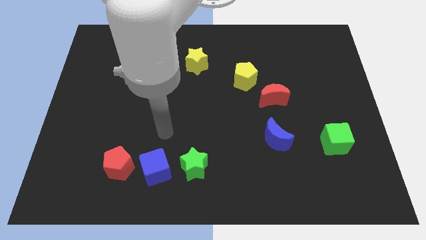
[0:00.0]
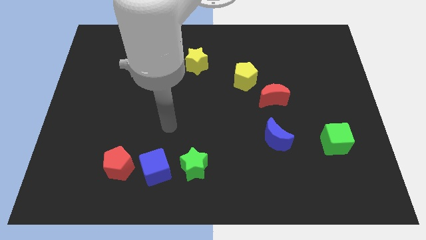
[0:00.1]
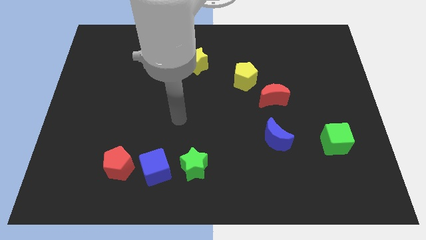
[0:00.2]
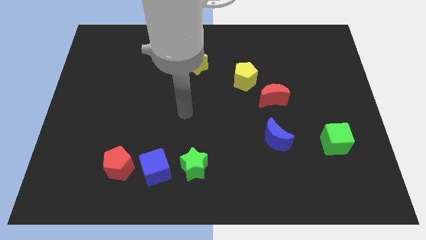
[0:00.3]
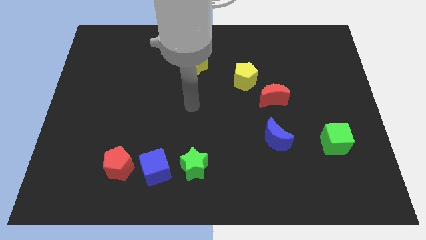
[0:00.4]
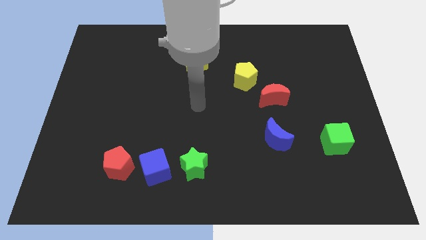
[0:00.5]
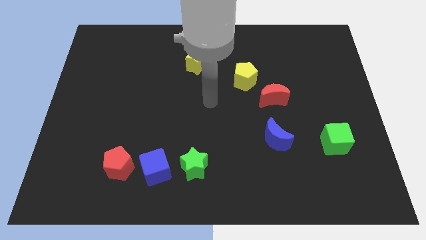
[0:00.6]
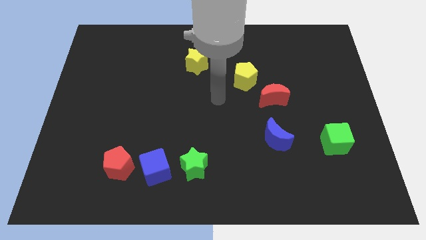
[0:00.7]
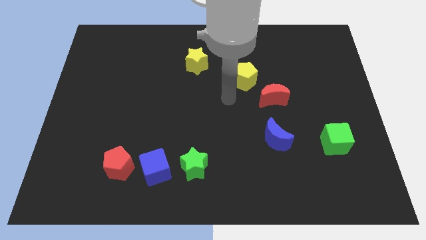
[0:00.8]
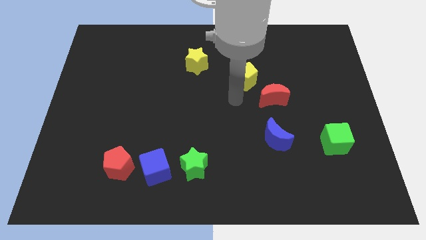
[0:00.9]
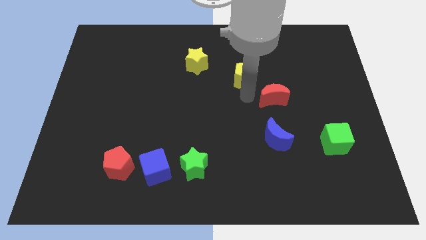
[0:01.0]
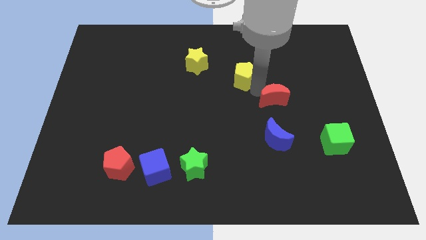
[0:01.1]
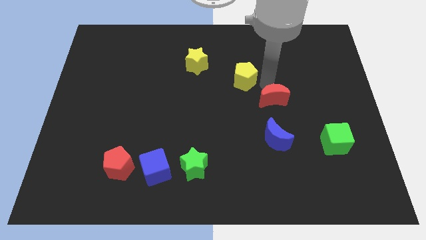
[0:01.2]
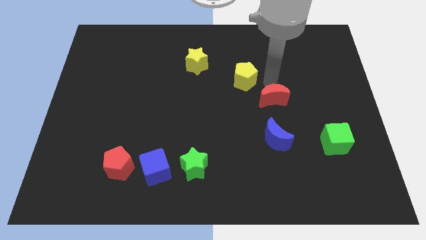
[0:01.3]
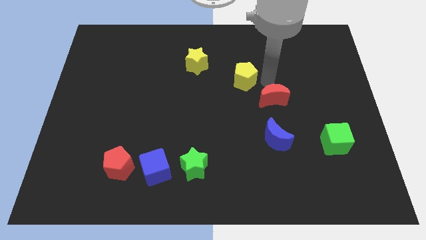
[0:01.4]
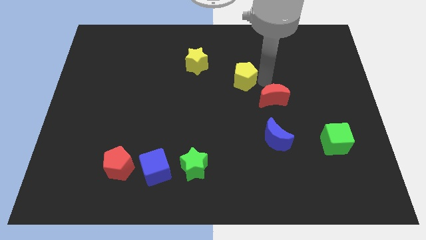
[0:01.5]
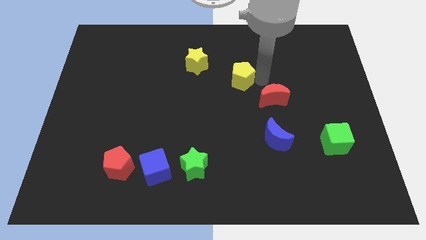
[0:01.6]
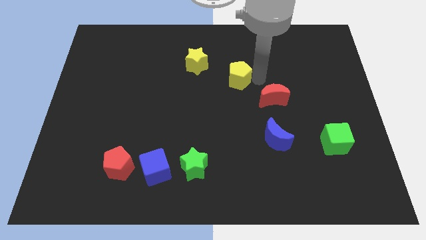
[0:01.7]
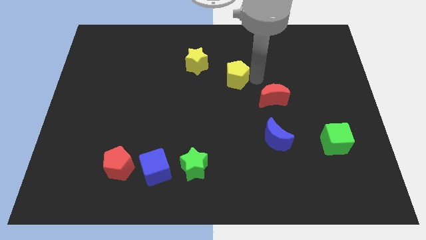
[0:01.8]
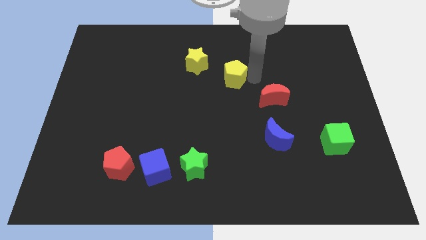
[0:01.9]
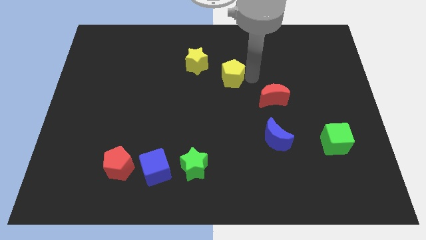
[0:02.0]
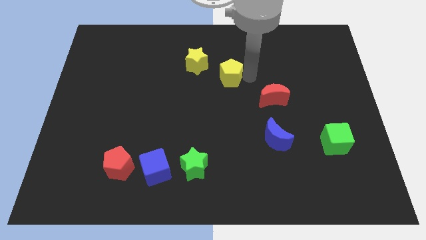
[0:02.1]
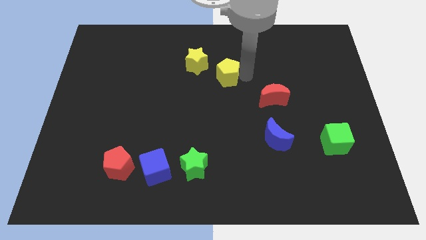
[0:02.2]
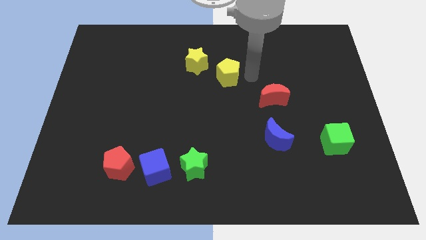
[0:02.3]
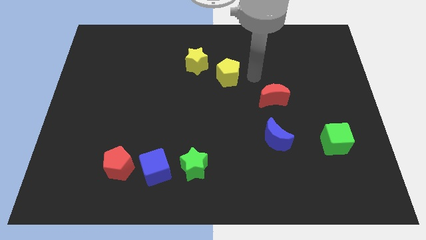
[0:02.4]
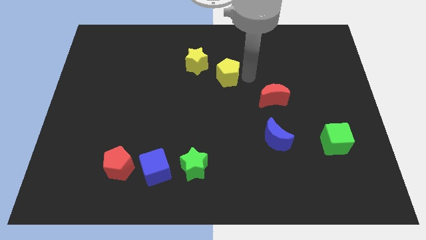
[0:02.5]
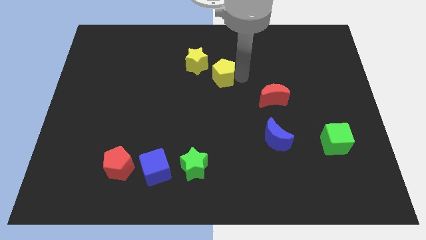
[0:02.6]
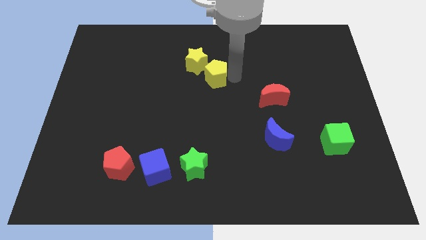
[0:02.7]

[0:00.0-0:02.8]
push the yellow pentagon a little bit to the left

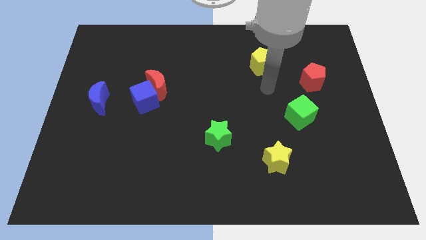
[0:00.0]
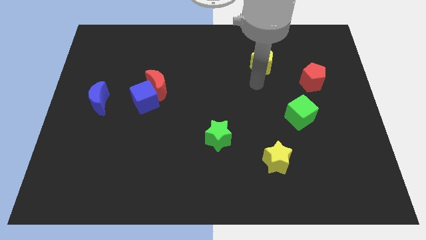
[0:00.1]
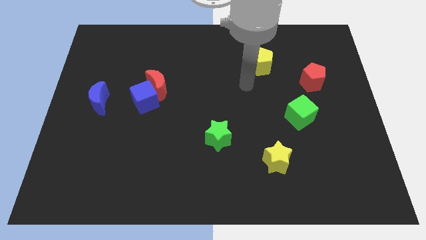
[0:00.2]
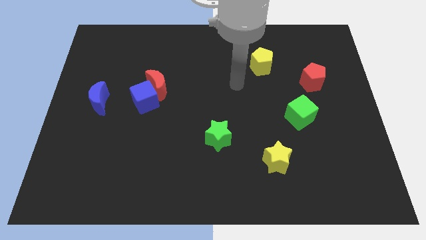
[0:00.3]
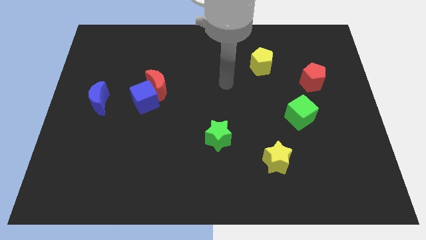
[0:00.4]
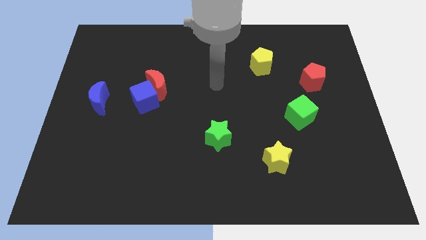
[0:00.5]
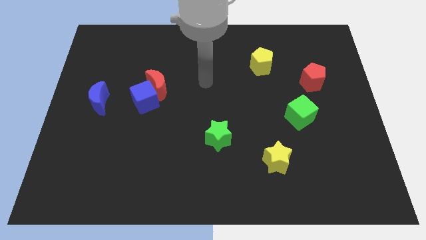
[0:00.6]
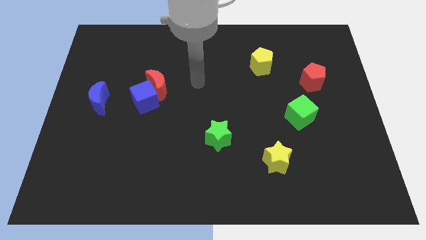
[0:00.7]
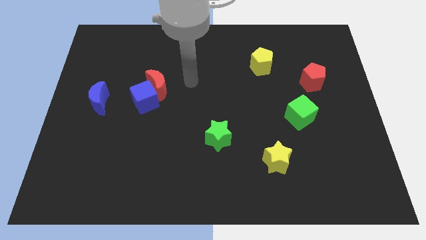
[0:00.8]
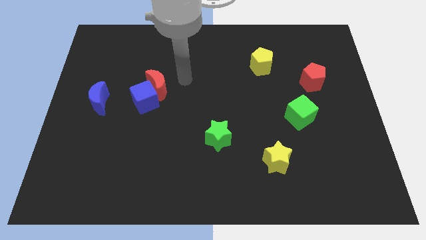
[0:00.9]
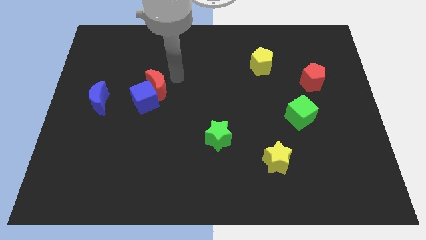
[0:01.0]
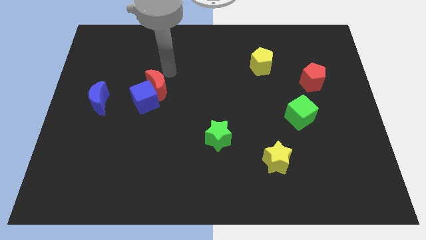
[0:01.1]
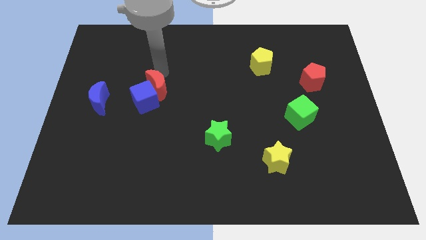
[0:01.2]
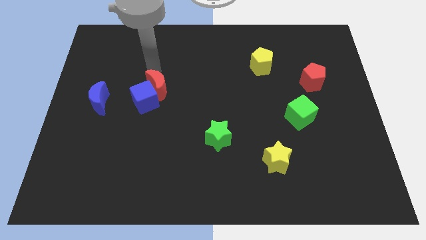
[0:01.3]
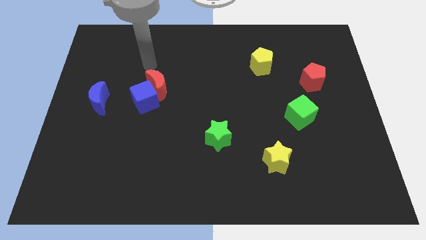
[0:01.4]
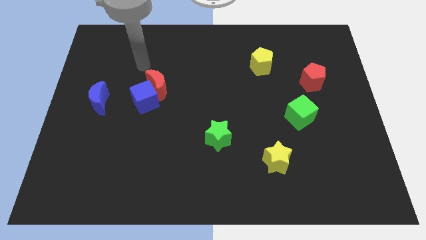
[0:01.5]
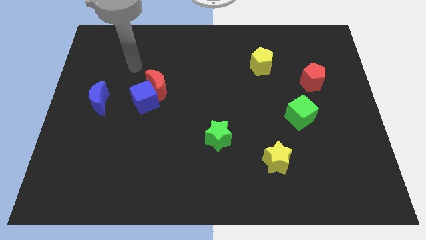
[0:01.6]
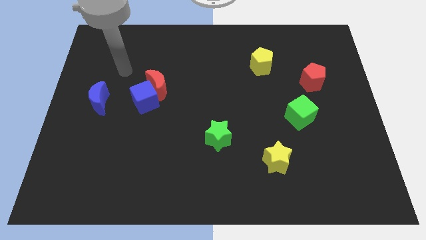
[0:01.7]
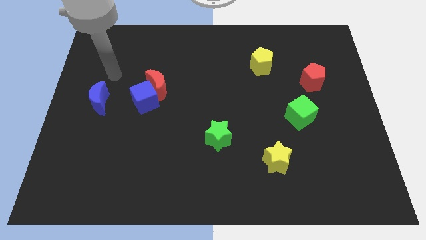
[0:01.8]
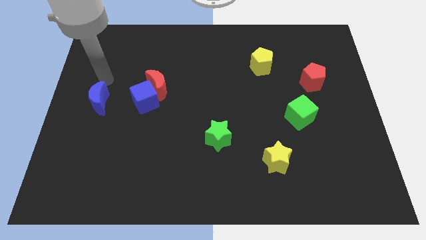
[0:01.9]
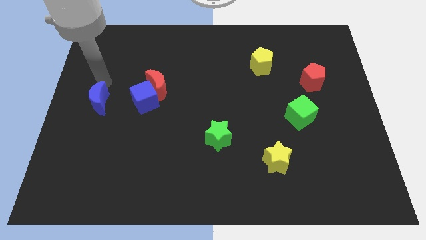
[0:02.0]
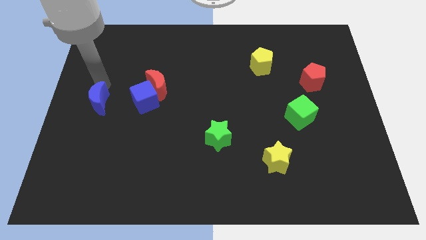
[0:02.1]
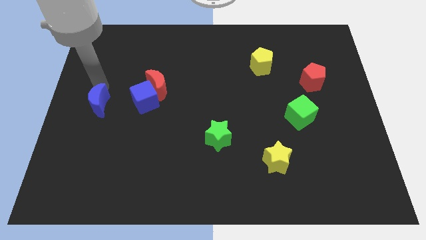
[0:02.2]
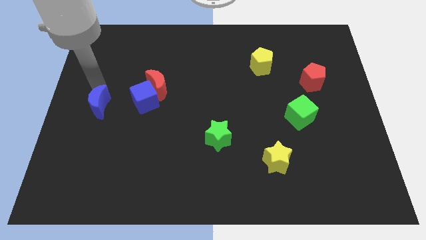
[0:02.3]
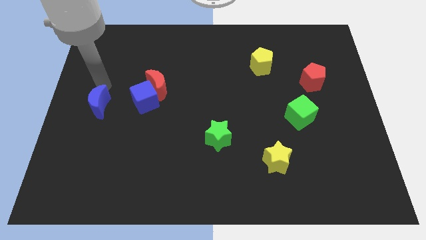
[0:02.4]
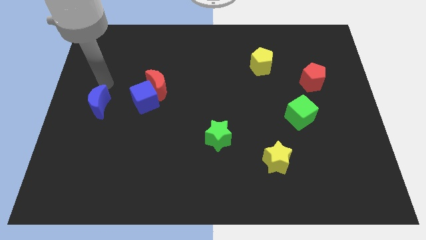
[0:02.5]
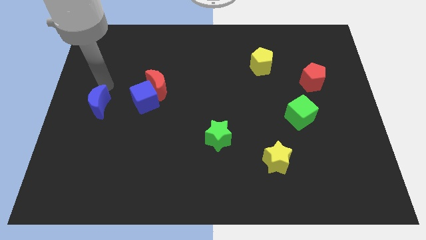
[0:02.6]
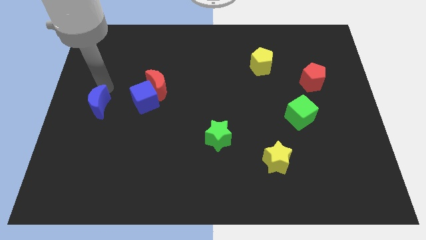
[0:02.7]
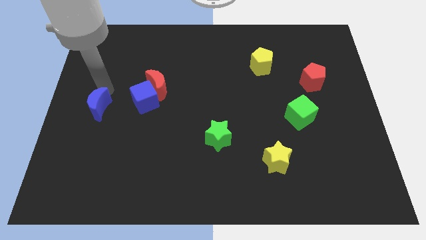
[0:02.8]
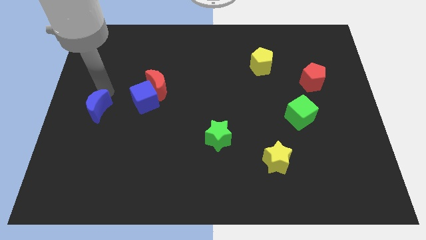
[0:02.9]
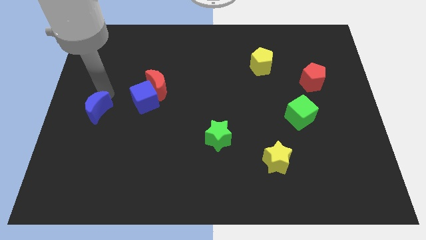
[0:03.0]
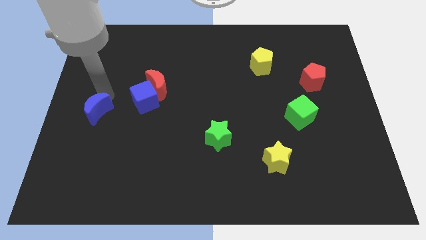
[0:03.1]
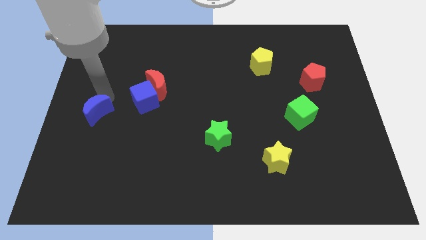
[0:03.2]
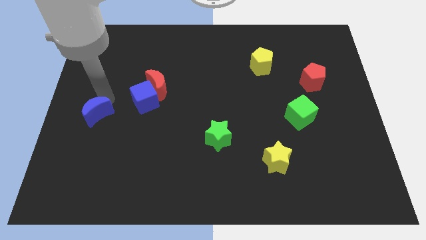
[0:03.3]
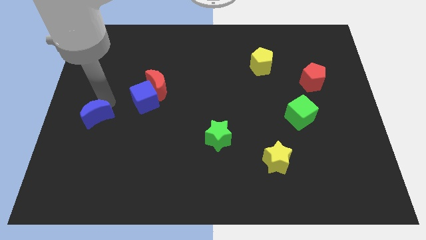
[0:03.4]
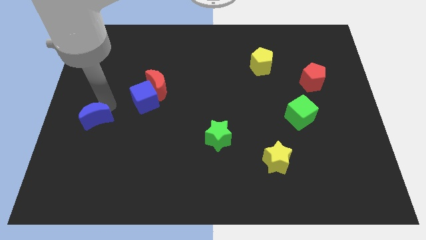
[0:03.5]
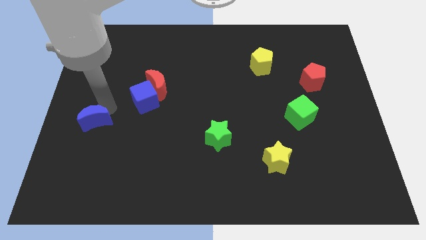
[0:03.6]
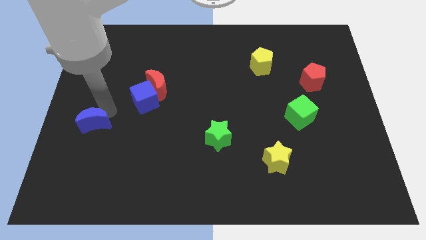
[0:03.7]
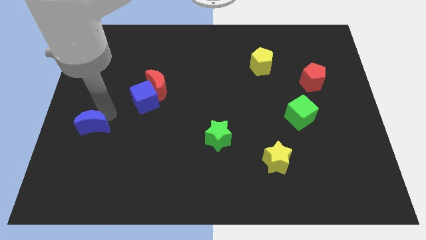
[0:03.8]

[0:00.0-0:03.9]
push the blue moon a little bit downwards

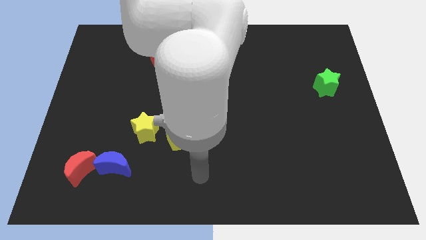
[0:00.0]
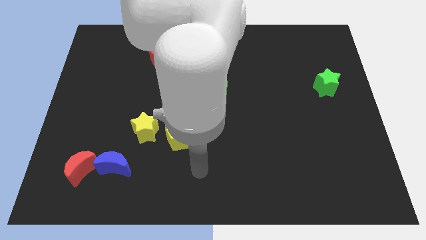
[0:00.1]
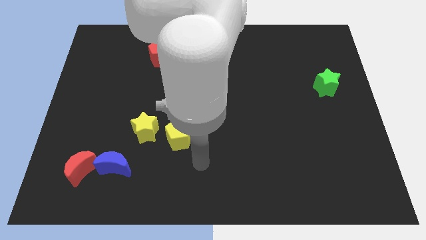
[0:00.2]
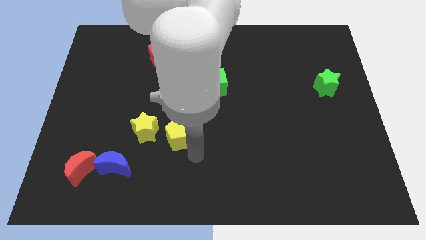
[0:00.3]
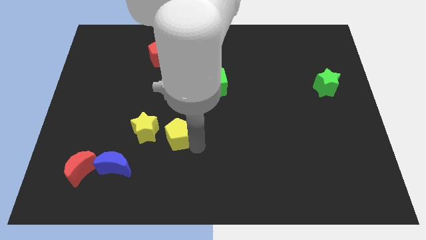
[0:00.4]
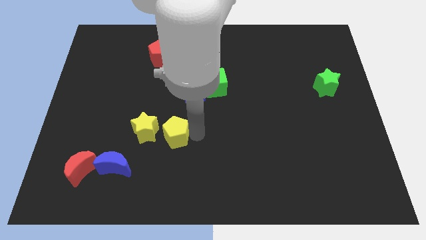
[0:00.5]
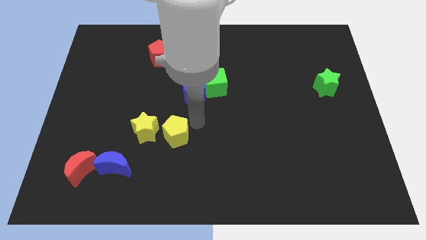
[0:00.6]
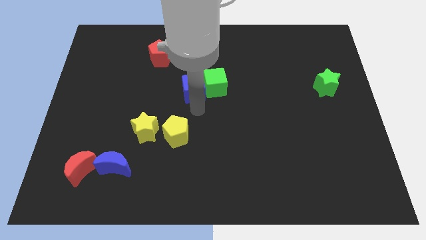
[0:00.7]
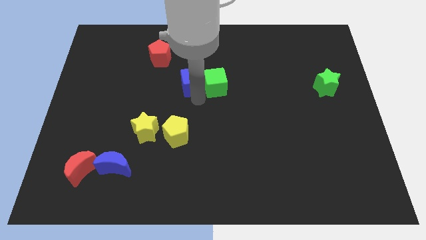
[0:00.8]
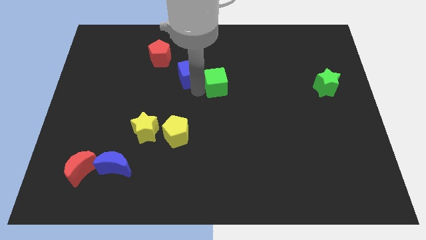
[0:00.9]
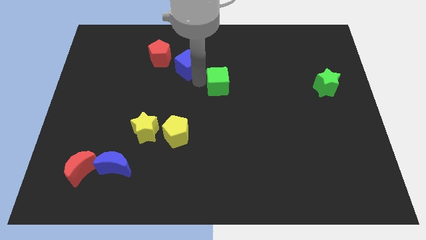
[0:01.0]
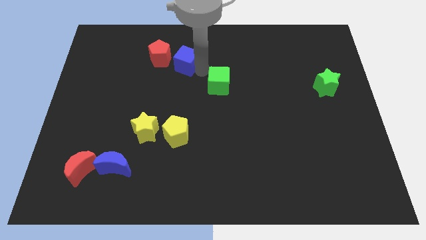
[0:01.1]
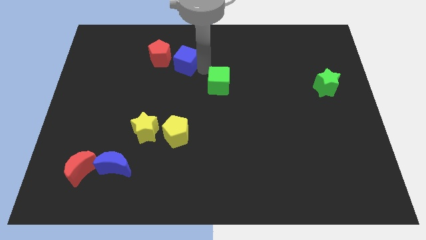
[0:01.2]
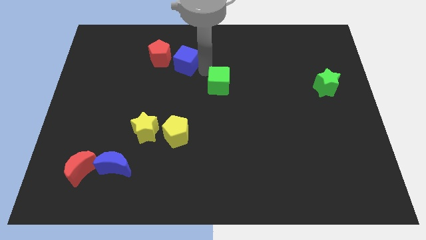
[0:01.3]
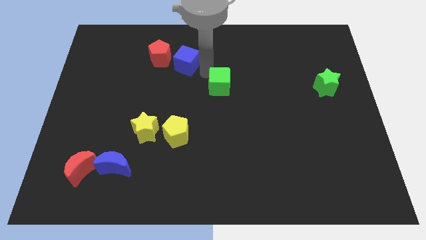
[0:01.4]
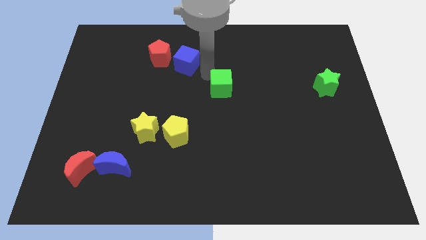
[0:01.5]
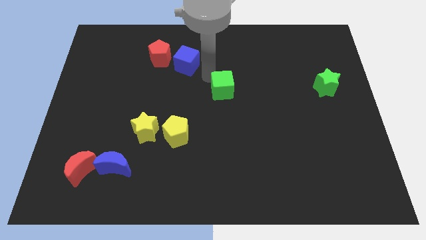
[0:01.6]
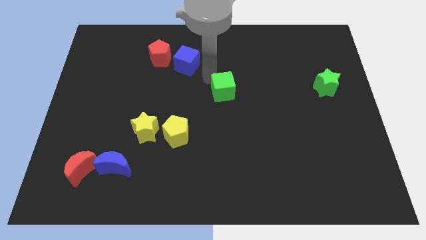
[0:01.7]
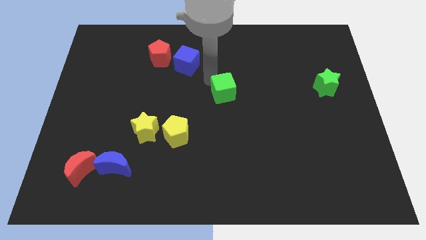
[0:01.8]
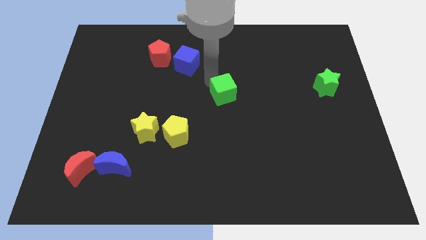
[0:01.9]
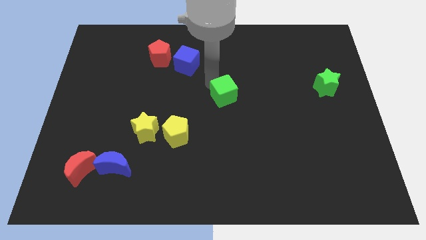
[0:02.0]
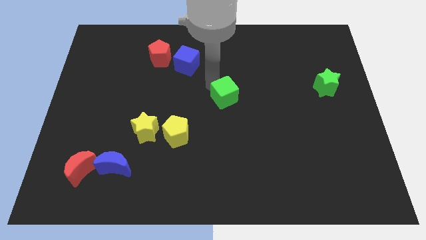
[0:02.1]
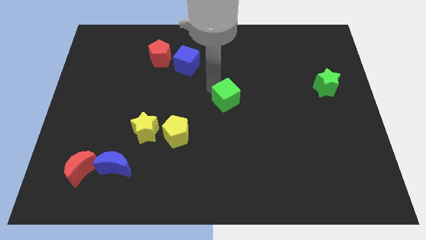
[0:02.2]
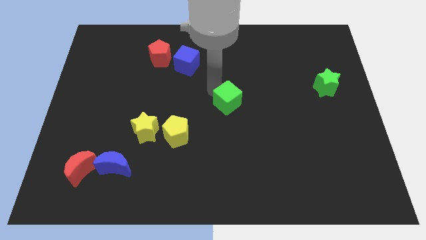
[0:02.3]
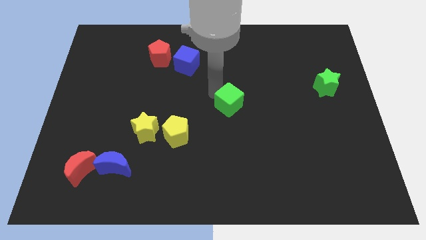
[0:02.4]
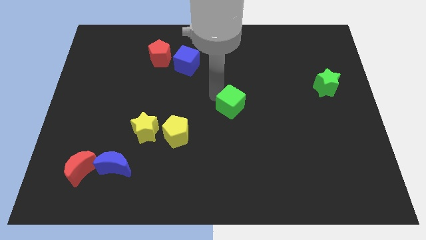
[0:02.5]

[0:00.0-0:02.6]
slide the green cube a bit down and to the right diagonally
